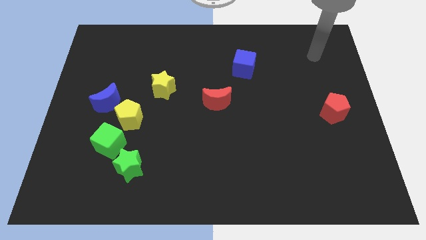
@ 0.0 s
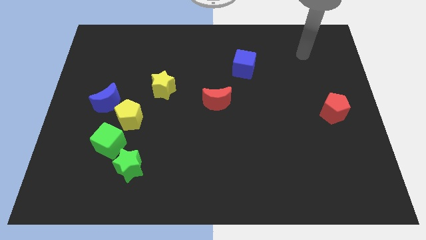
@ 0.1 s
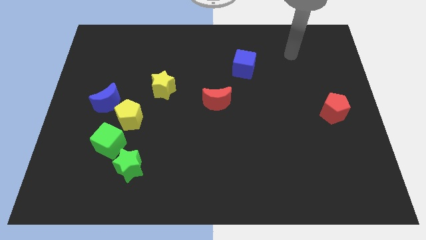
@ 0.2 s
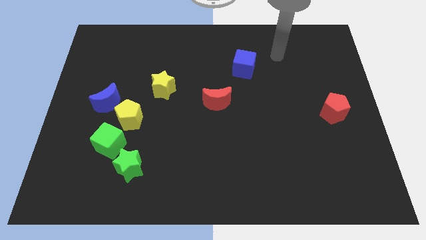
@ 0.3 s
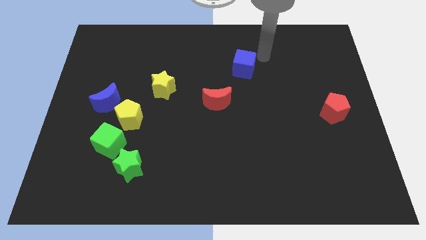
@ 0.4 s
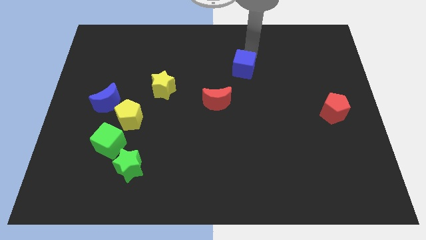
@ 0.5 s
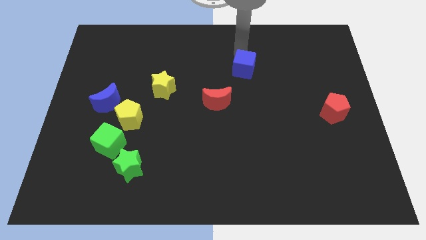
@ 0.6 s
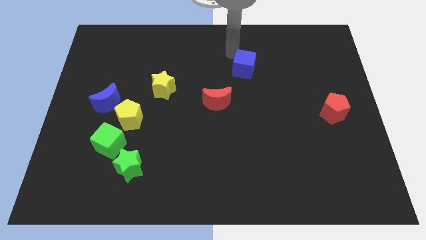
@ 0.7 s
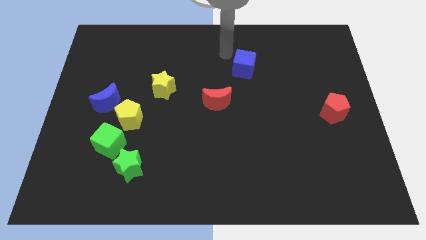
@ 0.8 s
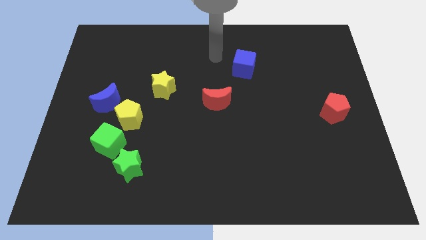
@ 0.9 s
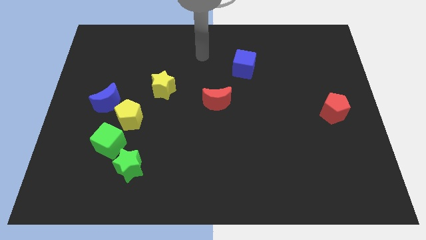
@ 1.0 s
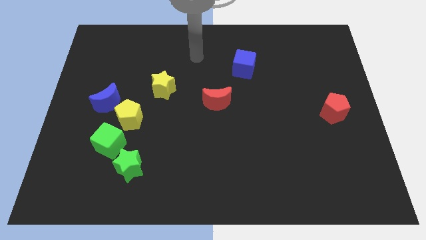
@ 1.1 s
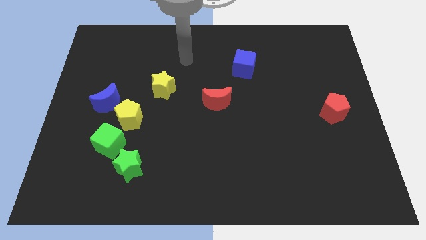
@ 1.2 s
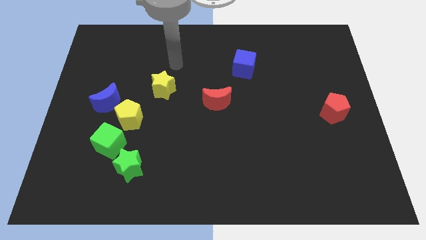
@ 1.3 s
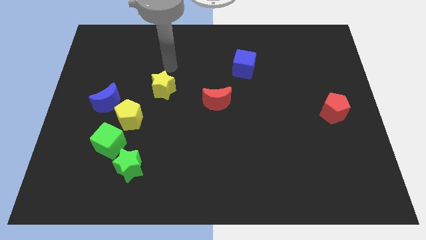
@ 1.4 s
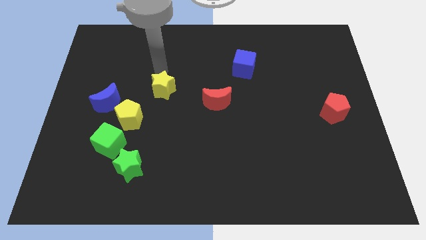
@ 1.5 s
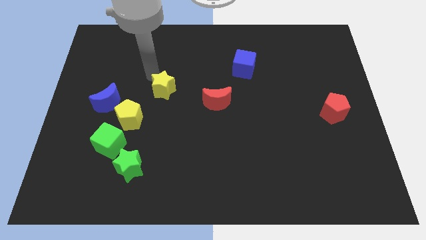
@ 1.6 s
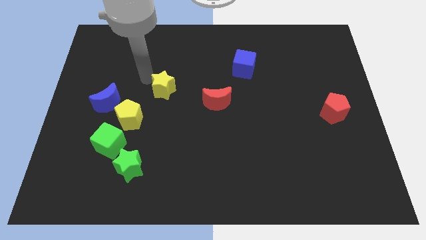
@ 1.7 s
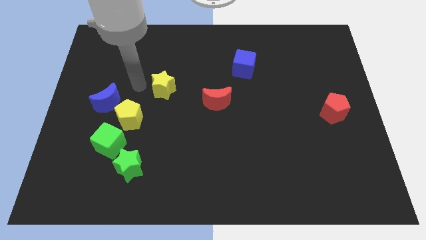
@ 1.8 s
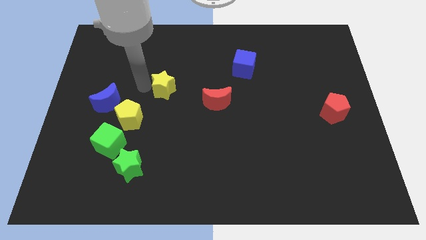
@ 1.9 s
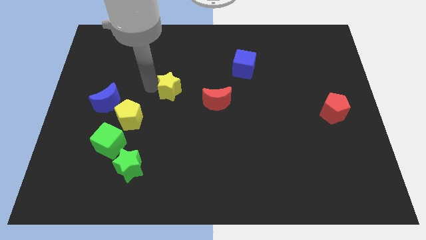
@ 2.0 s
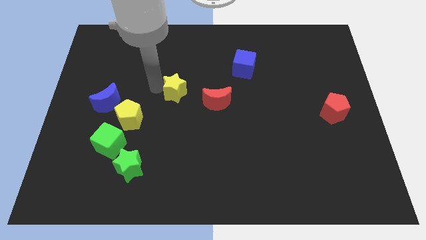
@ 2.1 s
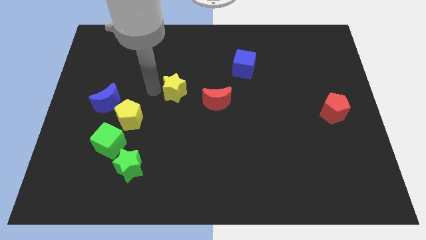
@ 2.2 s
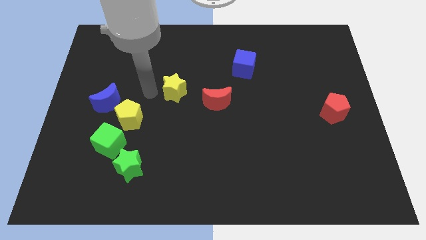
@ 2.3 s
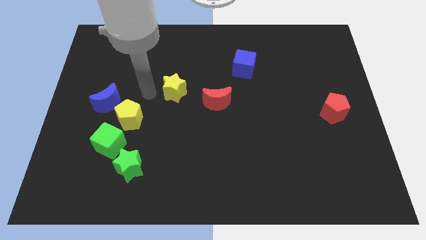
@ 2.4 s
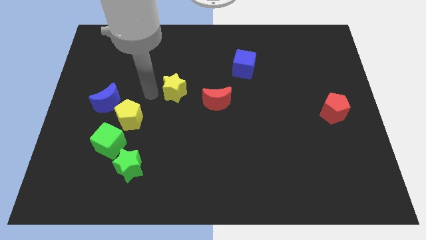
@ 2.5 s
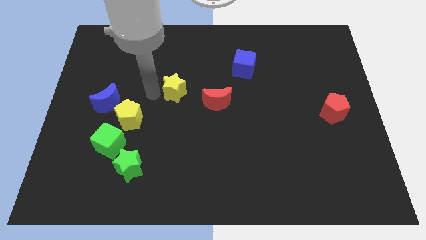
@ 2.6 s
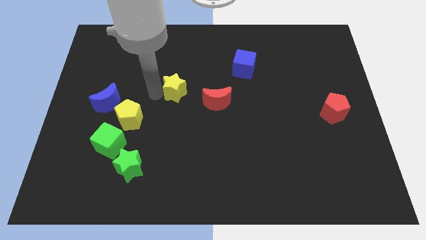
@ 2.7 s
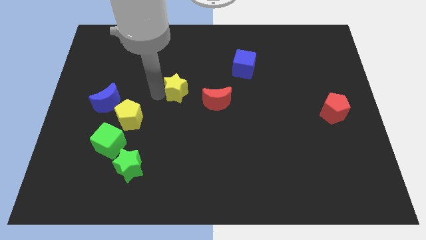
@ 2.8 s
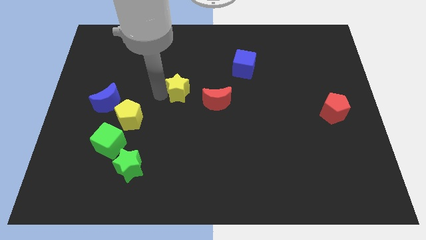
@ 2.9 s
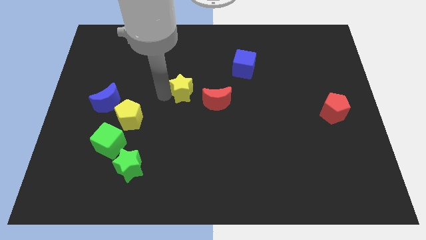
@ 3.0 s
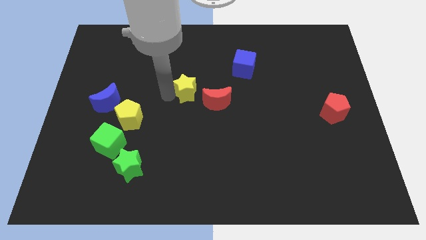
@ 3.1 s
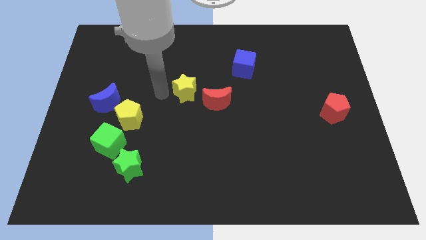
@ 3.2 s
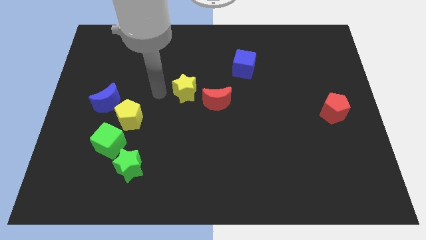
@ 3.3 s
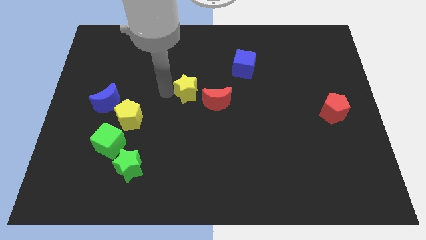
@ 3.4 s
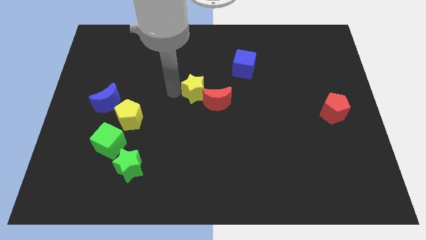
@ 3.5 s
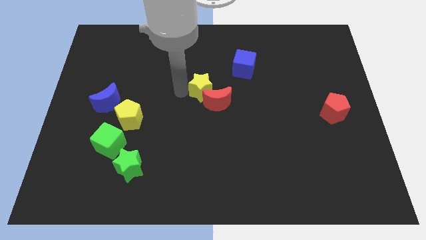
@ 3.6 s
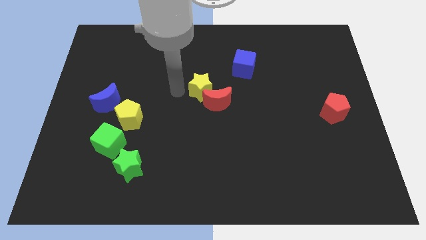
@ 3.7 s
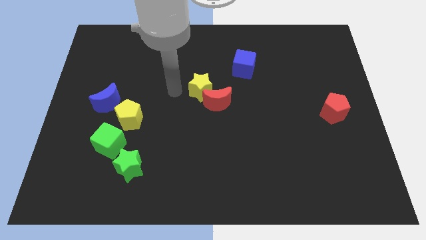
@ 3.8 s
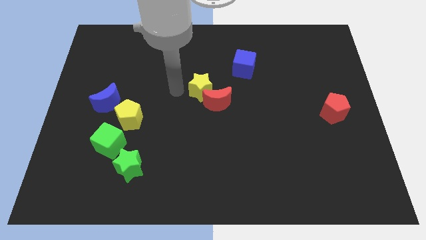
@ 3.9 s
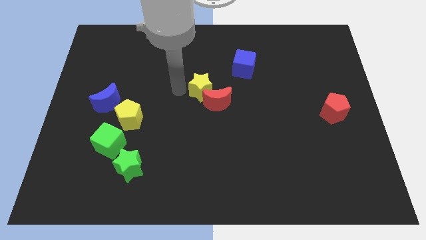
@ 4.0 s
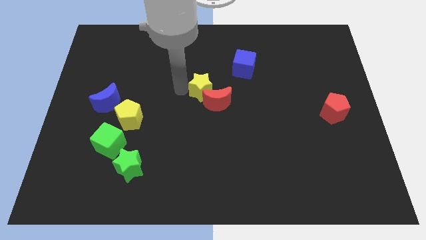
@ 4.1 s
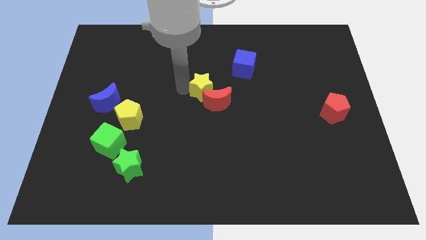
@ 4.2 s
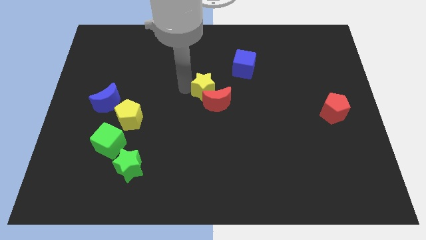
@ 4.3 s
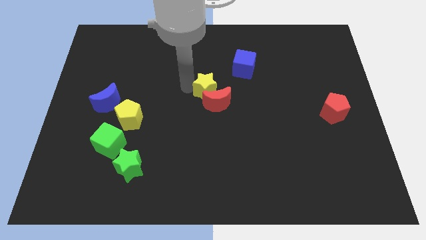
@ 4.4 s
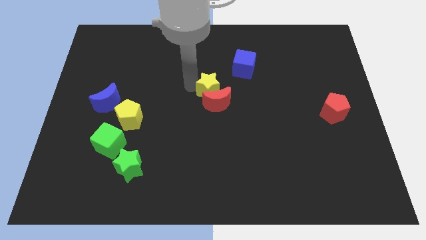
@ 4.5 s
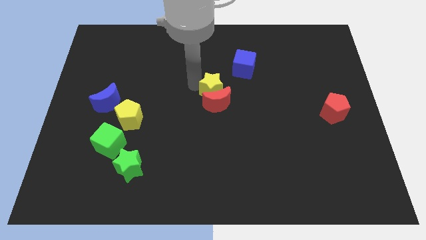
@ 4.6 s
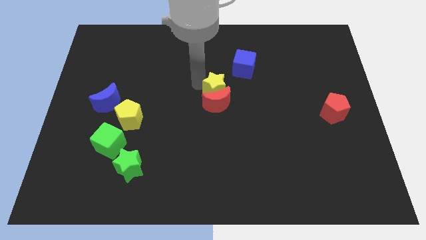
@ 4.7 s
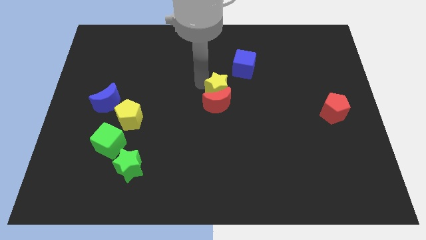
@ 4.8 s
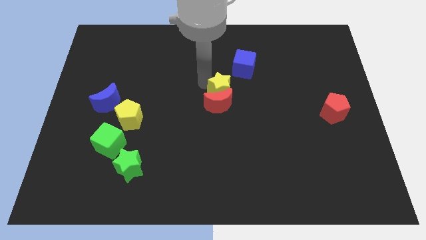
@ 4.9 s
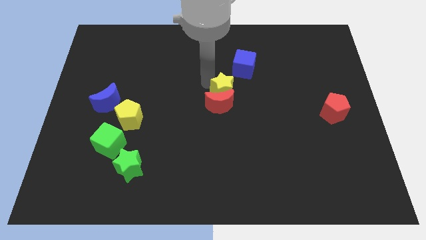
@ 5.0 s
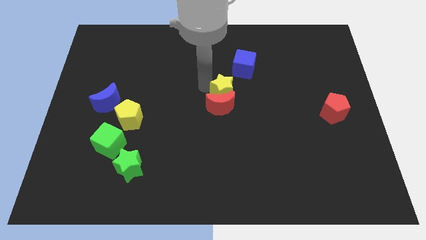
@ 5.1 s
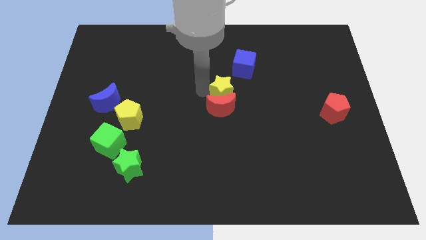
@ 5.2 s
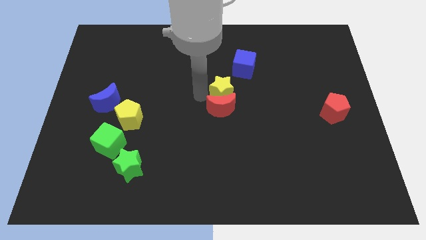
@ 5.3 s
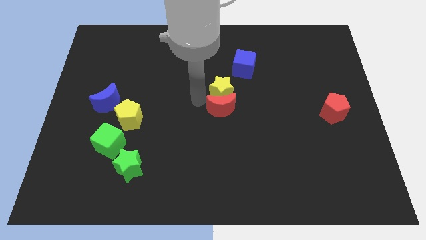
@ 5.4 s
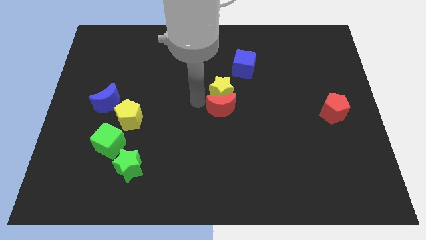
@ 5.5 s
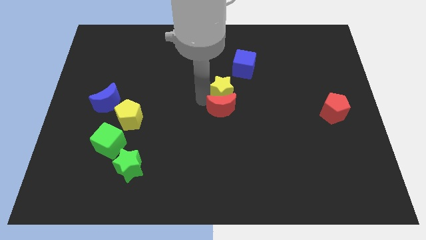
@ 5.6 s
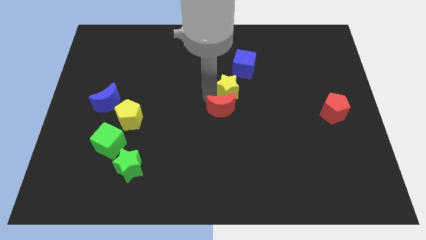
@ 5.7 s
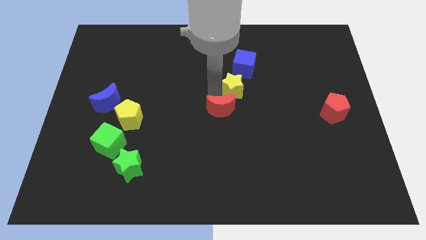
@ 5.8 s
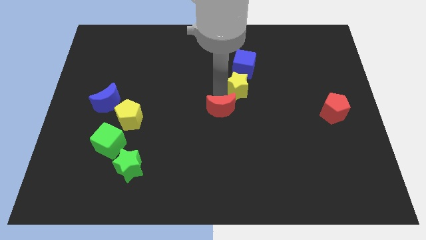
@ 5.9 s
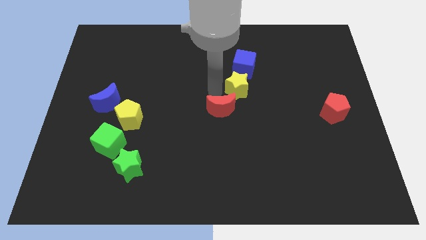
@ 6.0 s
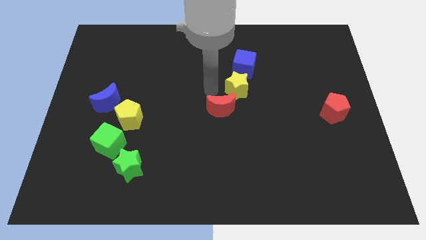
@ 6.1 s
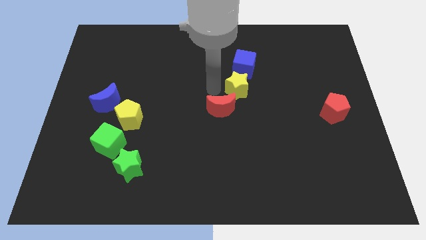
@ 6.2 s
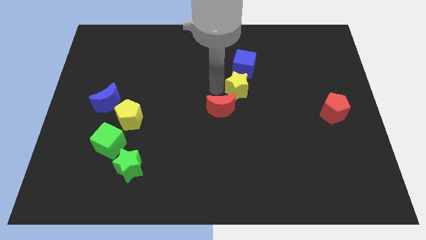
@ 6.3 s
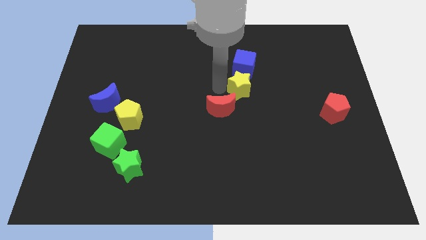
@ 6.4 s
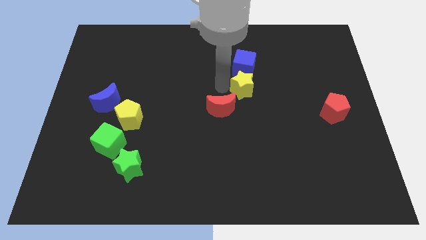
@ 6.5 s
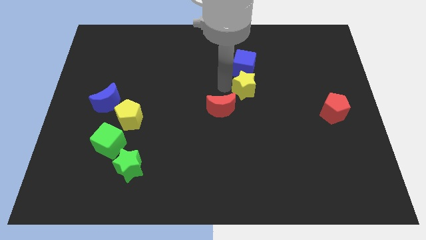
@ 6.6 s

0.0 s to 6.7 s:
slide the yellow star to the right

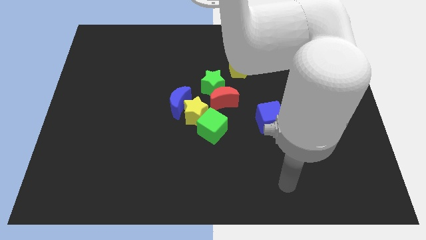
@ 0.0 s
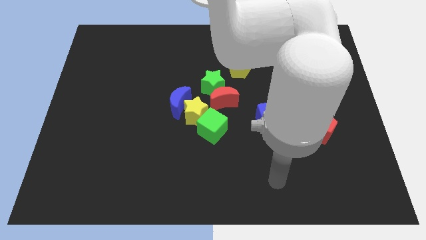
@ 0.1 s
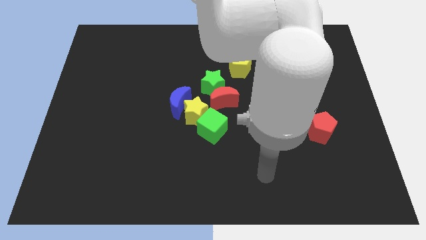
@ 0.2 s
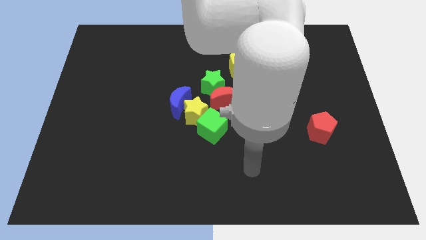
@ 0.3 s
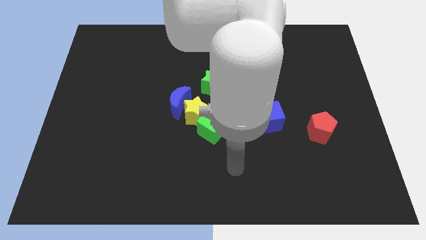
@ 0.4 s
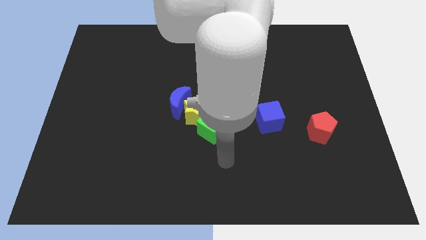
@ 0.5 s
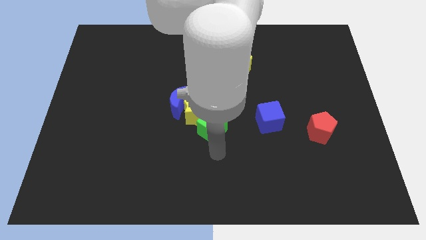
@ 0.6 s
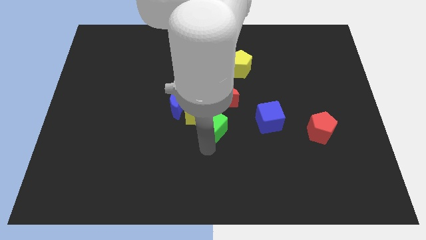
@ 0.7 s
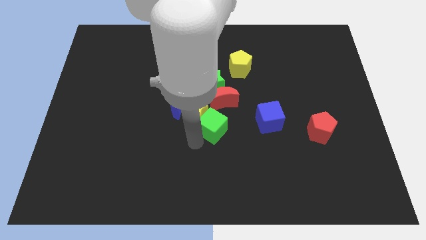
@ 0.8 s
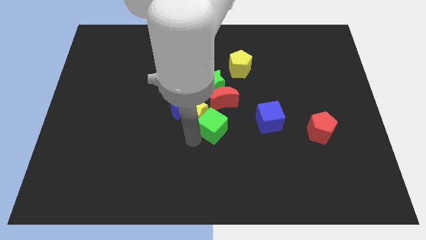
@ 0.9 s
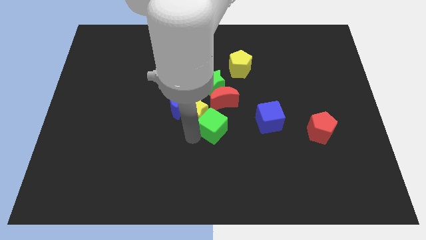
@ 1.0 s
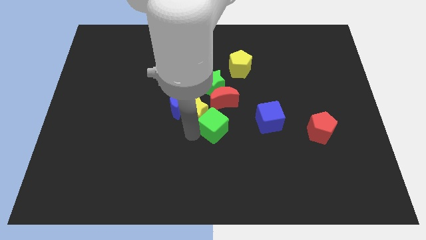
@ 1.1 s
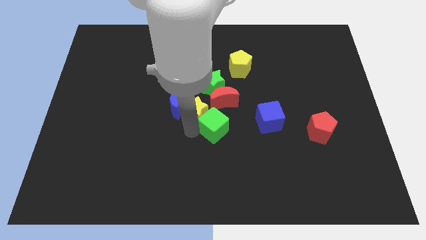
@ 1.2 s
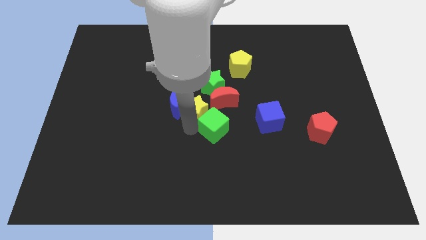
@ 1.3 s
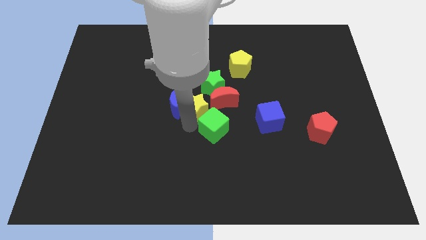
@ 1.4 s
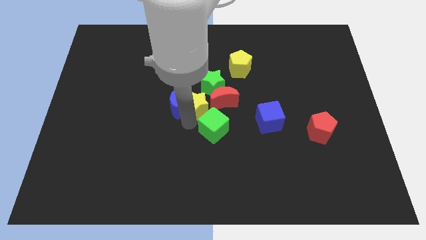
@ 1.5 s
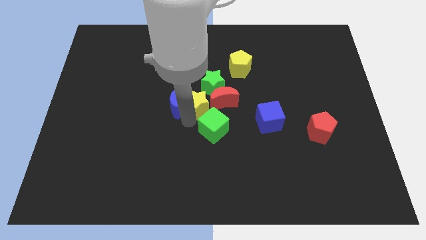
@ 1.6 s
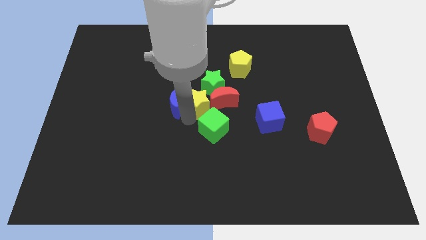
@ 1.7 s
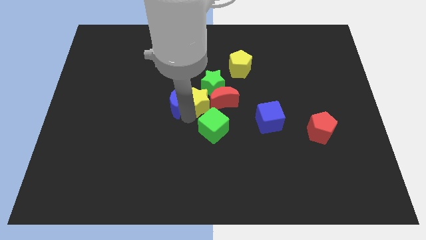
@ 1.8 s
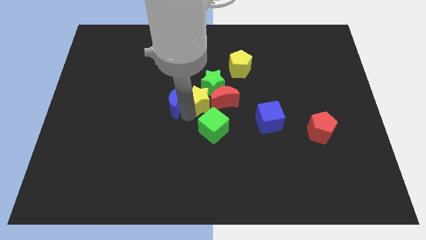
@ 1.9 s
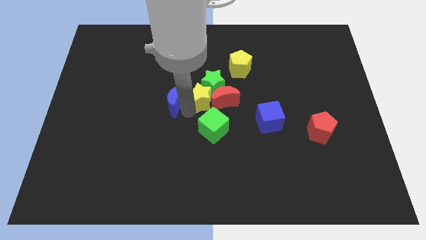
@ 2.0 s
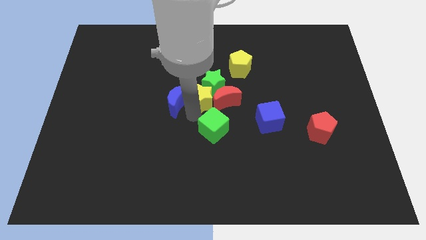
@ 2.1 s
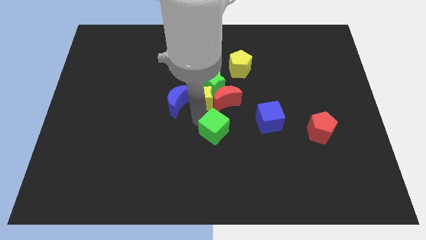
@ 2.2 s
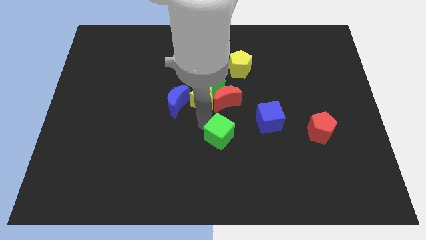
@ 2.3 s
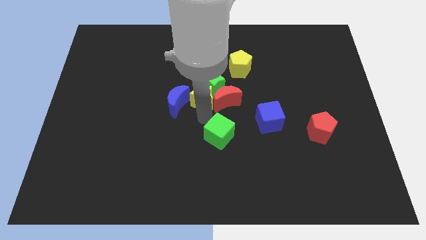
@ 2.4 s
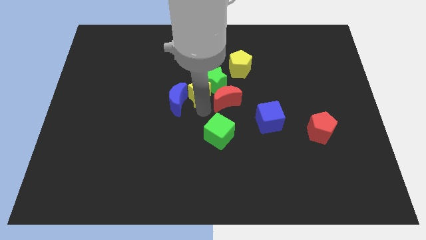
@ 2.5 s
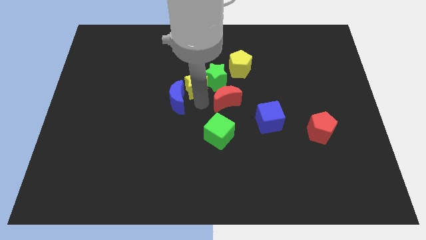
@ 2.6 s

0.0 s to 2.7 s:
push the yellow star somewhat up
